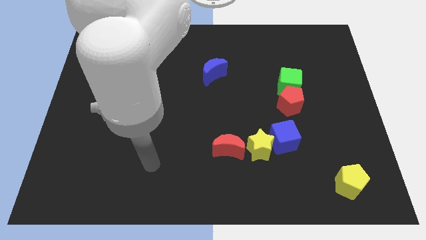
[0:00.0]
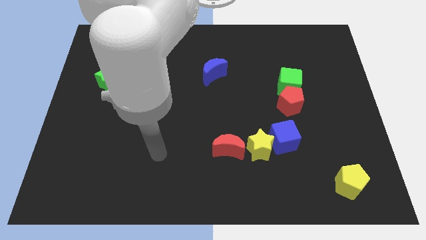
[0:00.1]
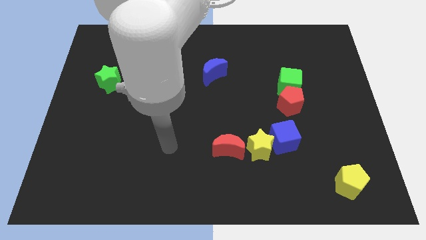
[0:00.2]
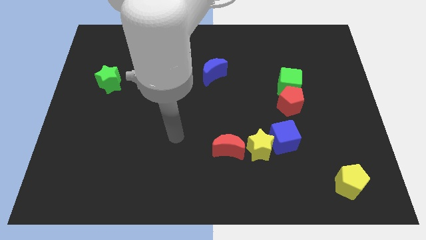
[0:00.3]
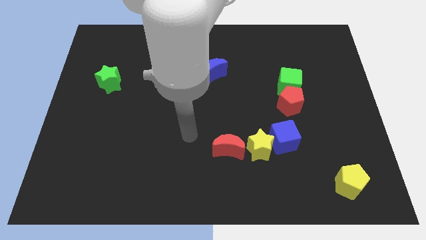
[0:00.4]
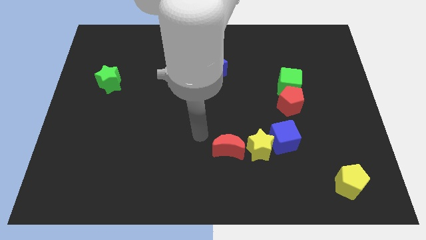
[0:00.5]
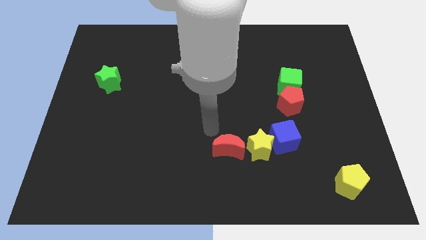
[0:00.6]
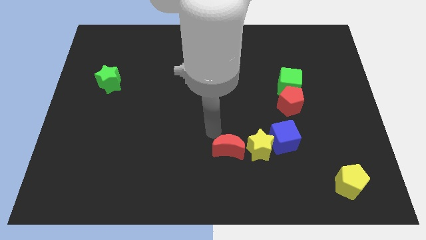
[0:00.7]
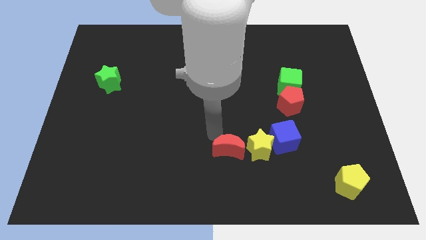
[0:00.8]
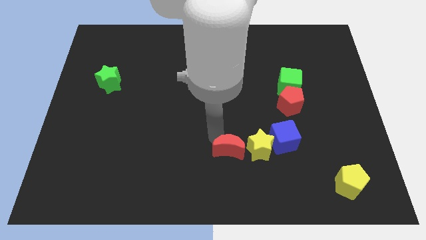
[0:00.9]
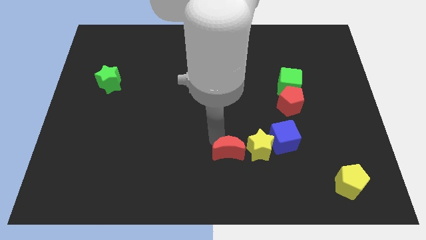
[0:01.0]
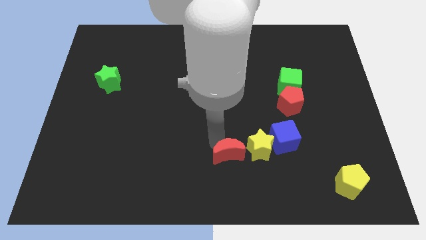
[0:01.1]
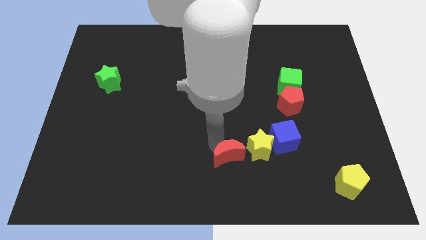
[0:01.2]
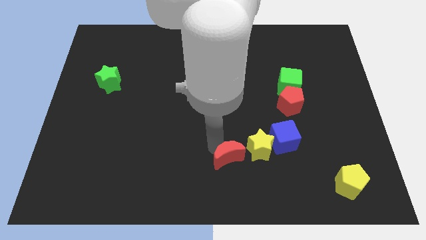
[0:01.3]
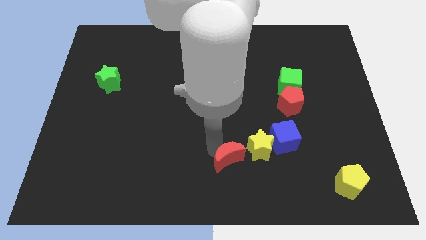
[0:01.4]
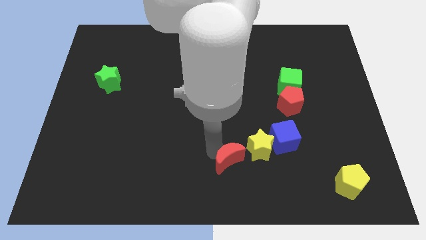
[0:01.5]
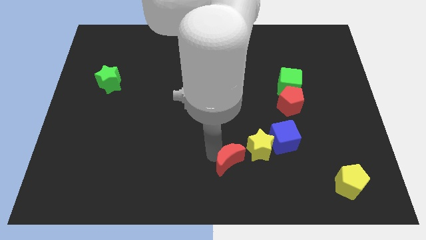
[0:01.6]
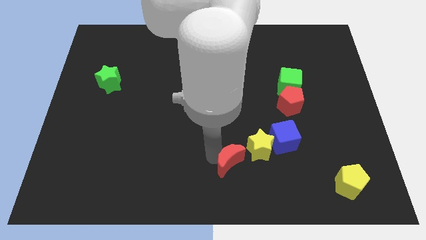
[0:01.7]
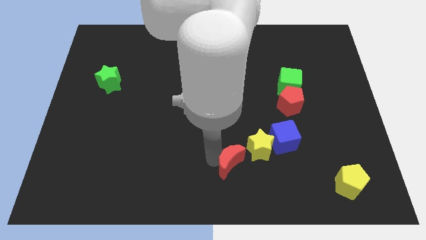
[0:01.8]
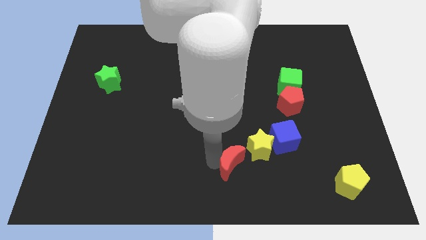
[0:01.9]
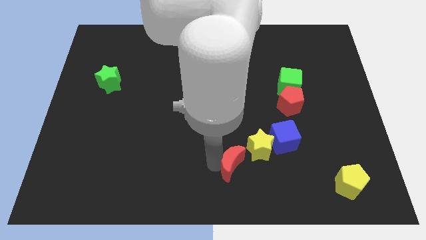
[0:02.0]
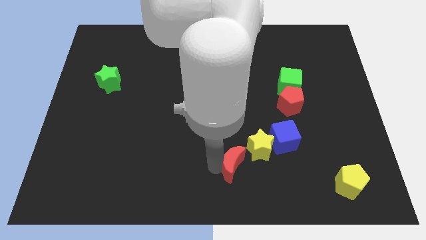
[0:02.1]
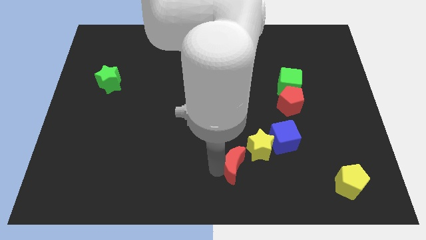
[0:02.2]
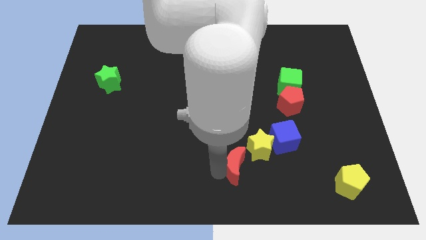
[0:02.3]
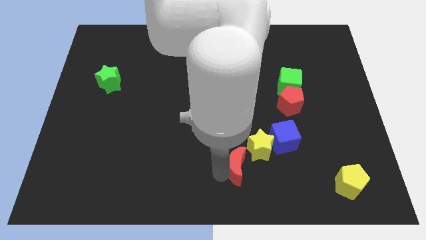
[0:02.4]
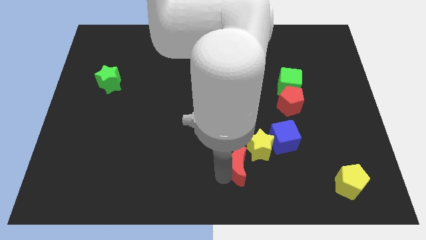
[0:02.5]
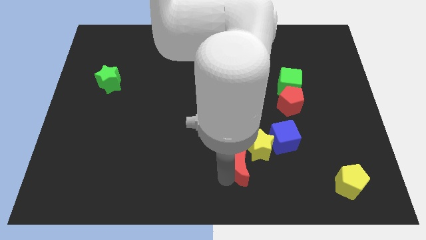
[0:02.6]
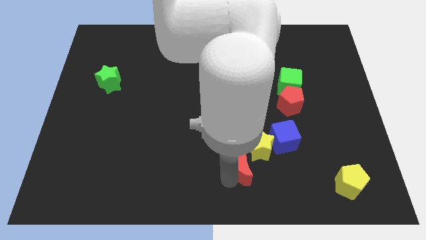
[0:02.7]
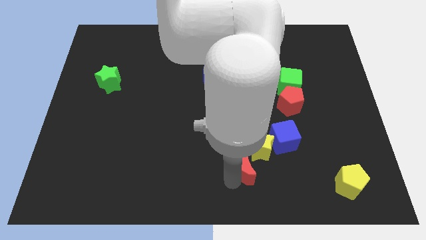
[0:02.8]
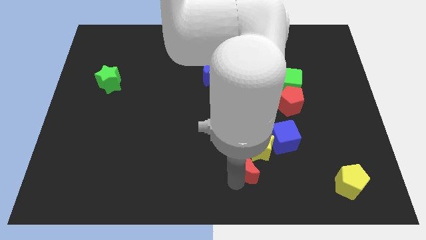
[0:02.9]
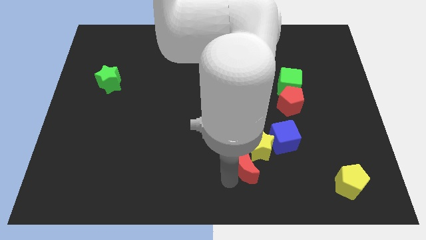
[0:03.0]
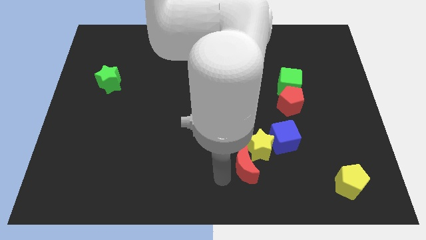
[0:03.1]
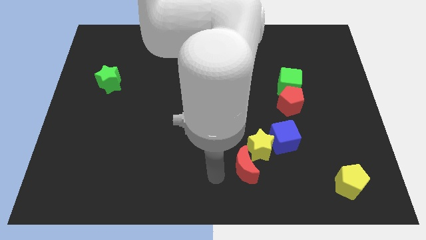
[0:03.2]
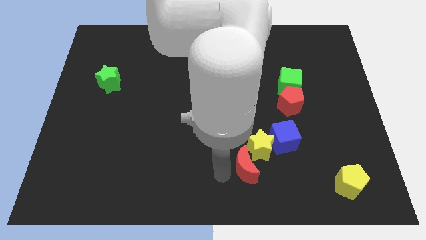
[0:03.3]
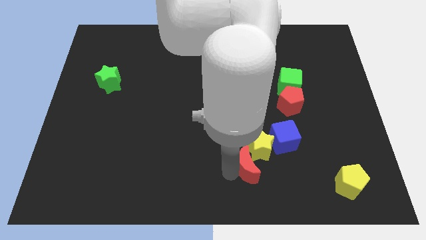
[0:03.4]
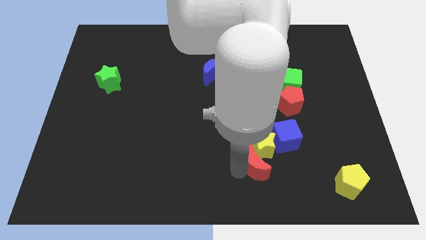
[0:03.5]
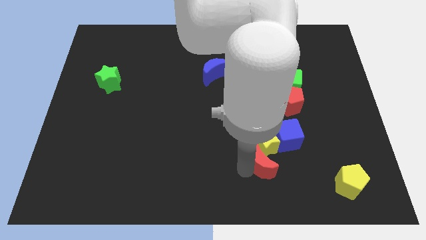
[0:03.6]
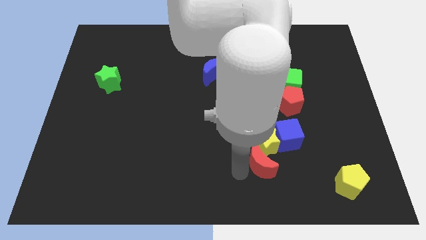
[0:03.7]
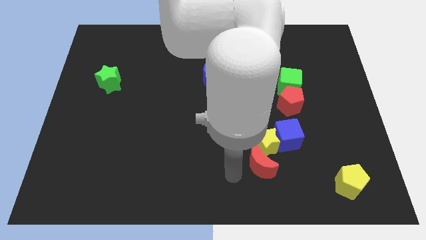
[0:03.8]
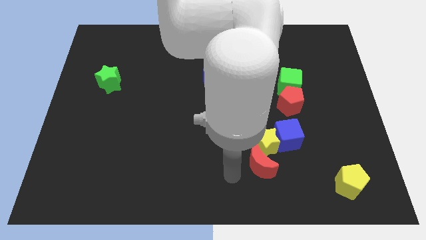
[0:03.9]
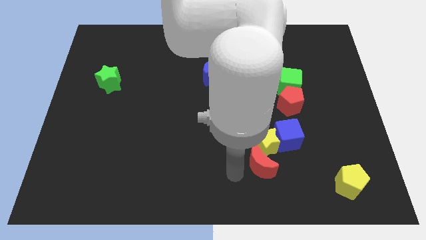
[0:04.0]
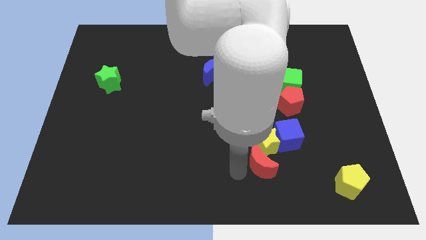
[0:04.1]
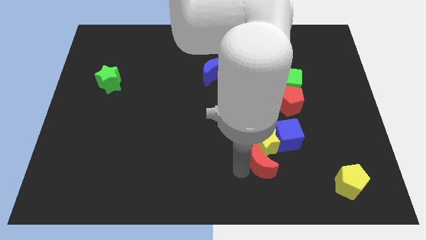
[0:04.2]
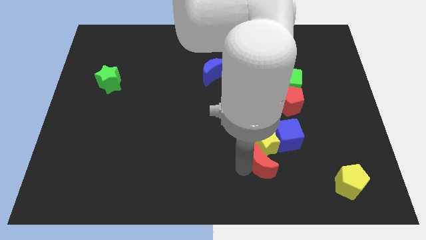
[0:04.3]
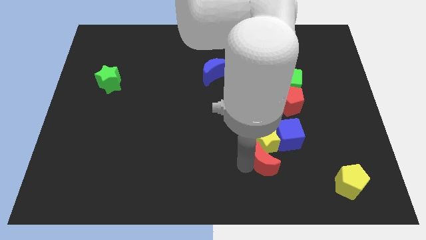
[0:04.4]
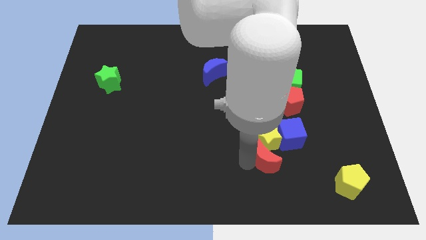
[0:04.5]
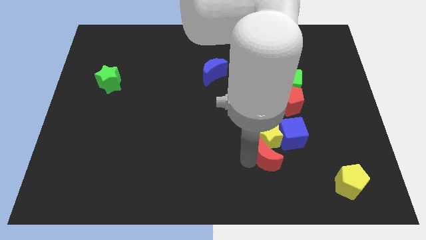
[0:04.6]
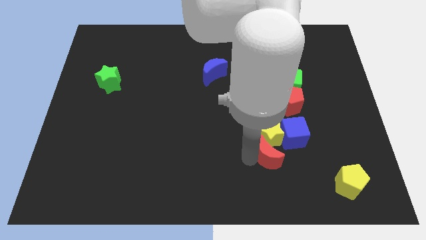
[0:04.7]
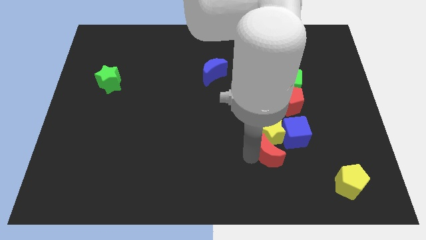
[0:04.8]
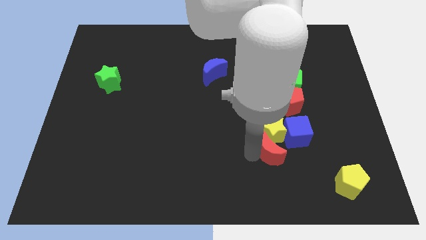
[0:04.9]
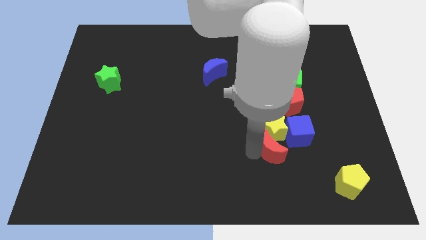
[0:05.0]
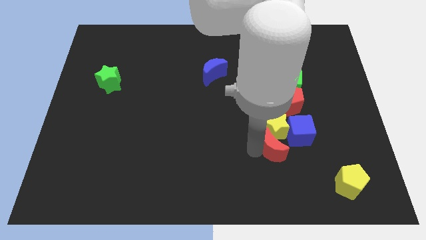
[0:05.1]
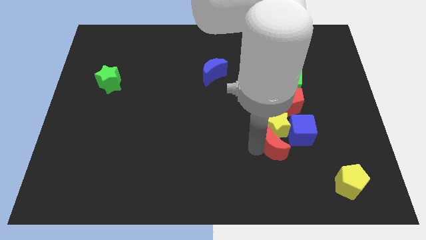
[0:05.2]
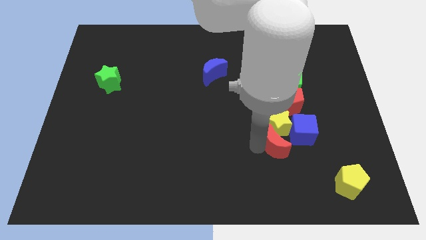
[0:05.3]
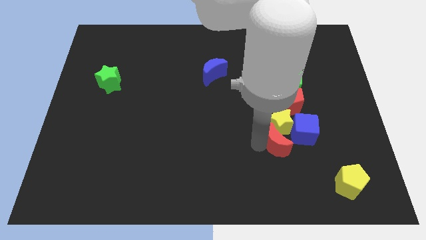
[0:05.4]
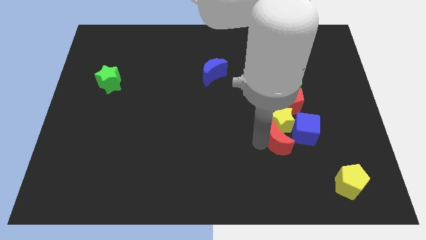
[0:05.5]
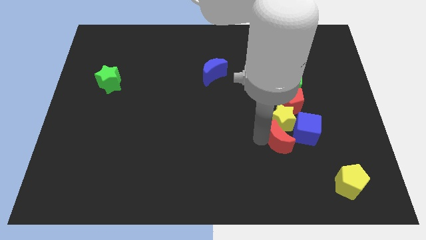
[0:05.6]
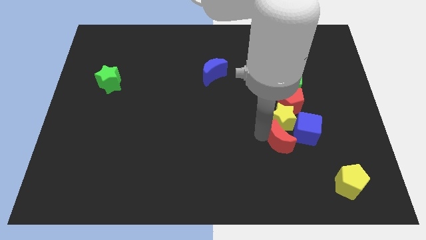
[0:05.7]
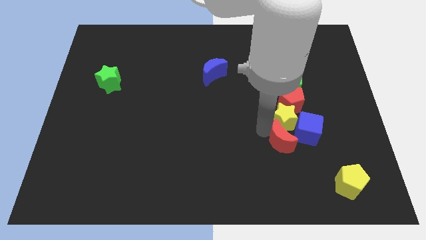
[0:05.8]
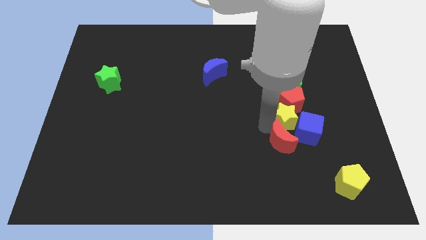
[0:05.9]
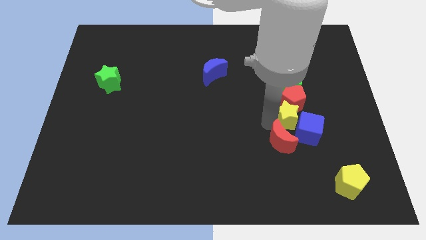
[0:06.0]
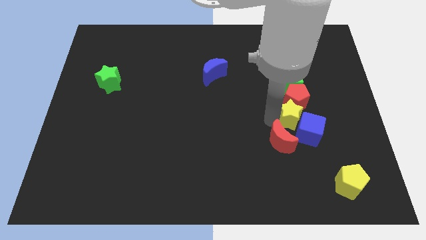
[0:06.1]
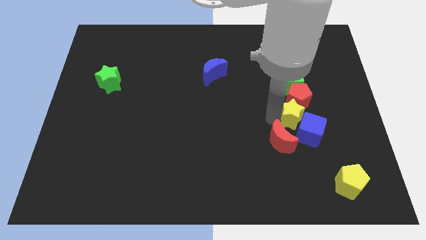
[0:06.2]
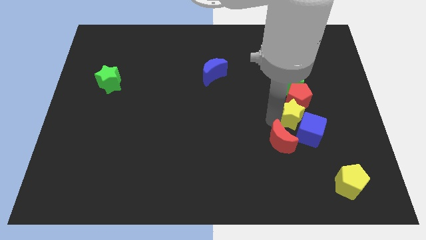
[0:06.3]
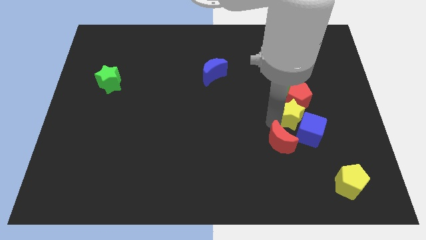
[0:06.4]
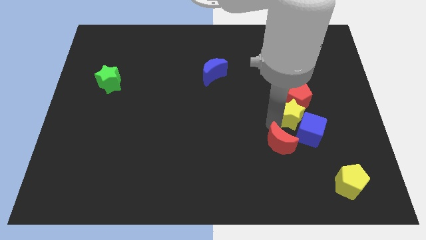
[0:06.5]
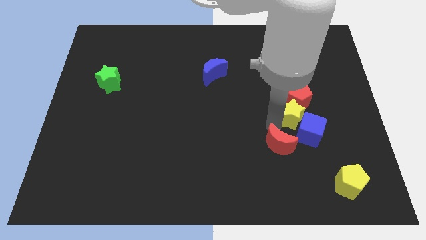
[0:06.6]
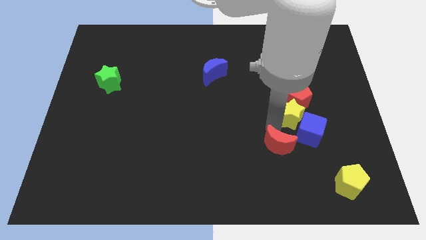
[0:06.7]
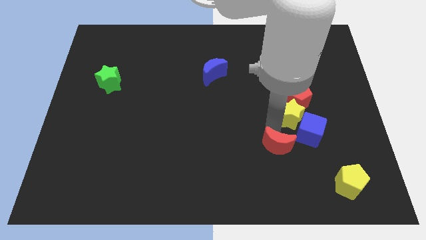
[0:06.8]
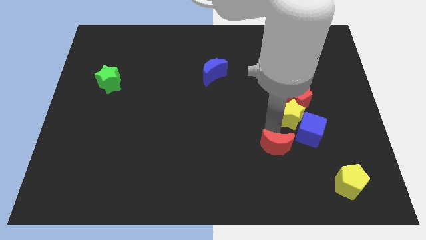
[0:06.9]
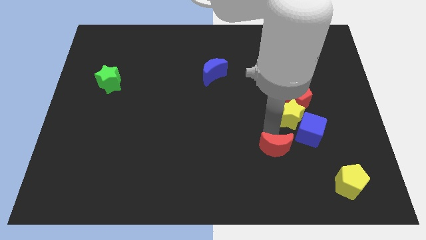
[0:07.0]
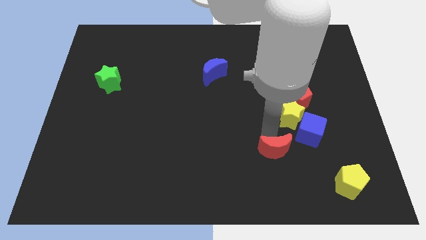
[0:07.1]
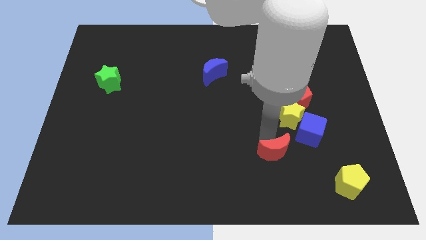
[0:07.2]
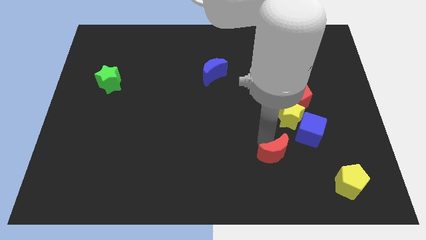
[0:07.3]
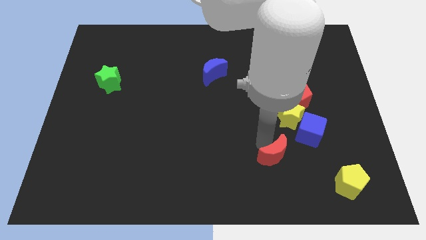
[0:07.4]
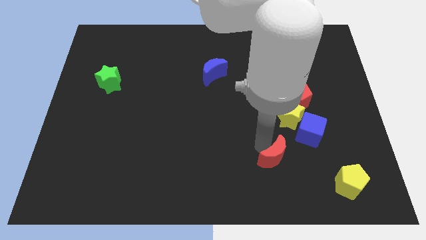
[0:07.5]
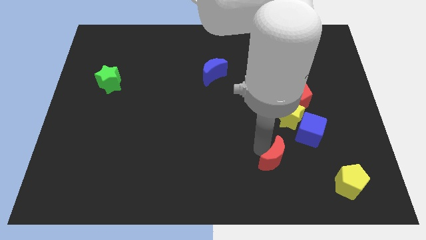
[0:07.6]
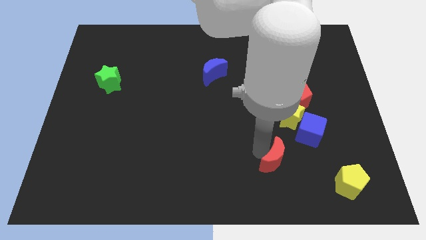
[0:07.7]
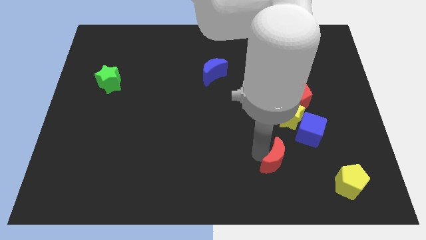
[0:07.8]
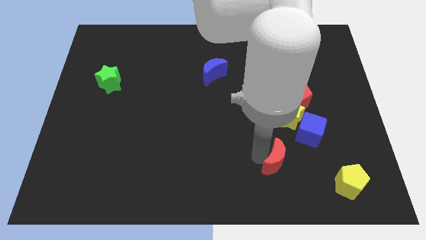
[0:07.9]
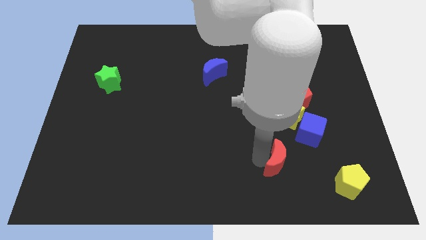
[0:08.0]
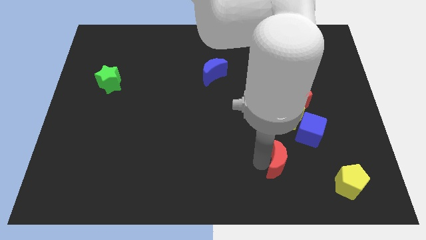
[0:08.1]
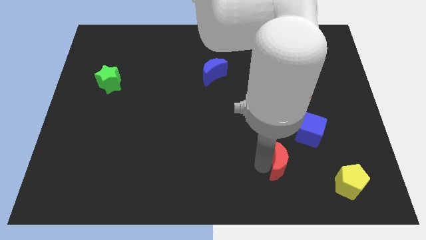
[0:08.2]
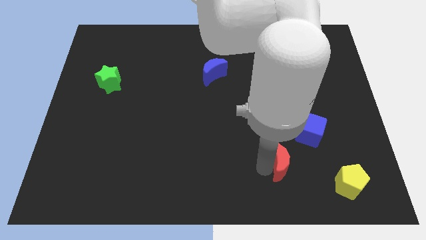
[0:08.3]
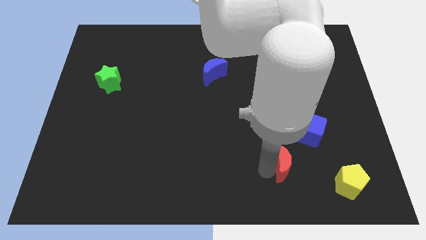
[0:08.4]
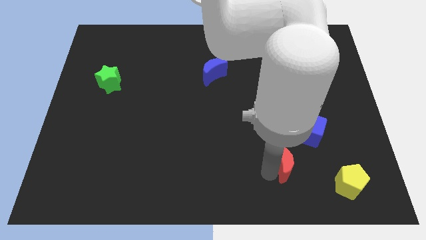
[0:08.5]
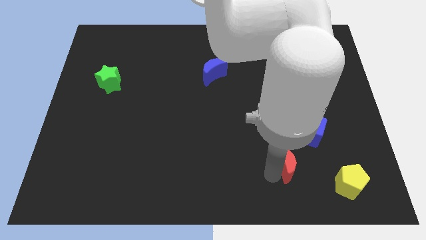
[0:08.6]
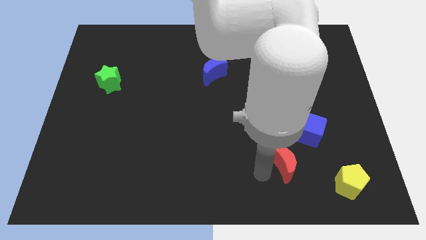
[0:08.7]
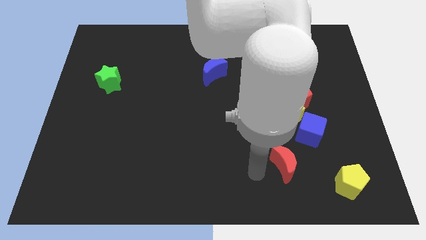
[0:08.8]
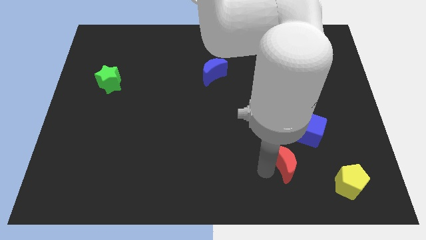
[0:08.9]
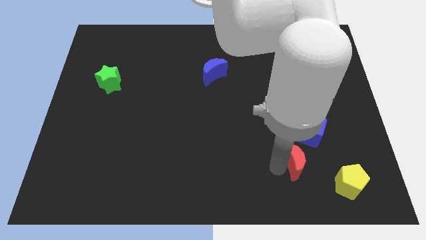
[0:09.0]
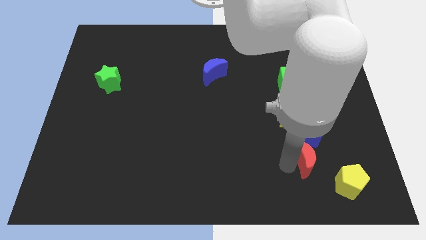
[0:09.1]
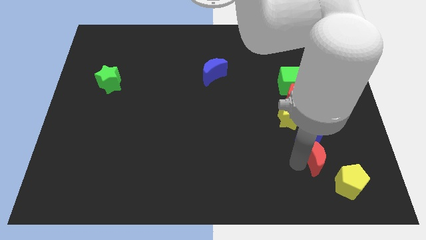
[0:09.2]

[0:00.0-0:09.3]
put the red moon to the bottom right of the blue cube
